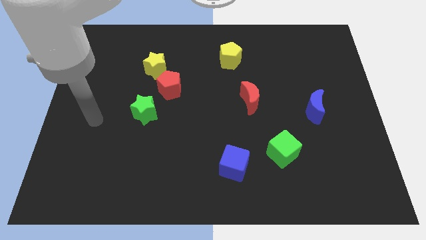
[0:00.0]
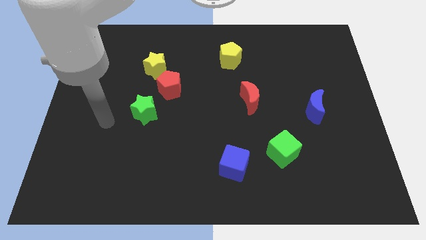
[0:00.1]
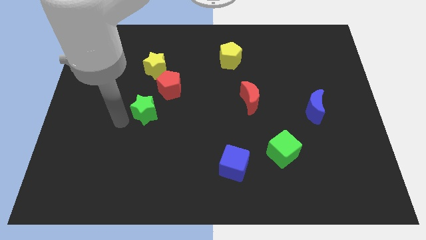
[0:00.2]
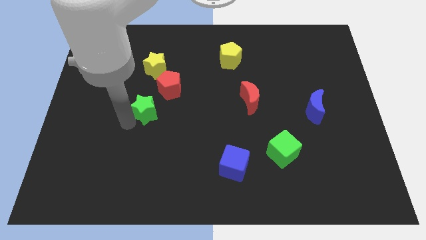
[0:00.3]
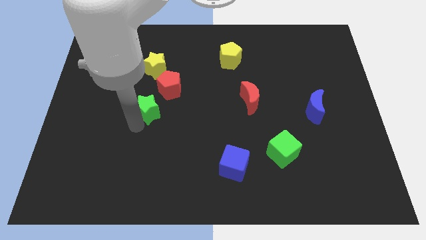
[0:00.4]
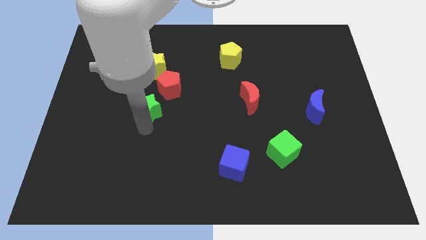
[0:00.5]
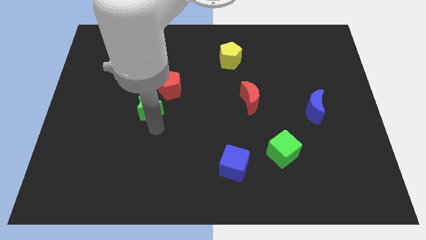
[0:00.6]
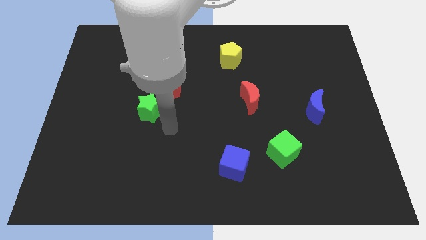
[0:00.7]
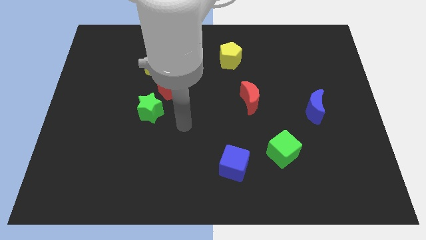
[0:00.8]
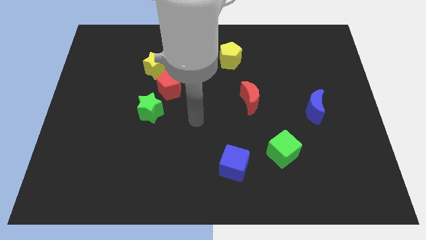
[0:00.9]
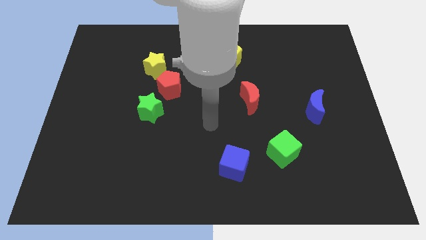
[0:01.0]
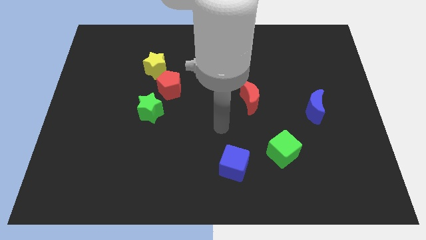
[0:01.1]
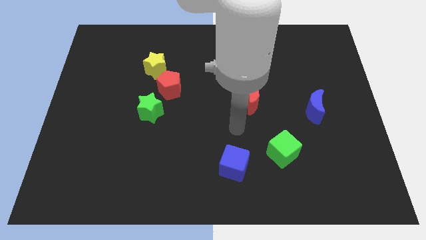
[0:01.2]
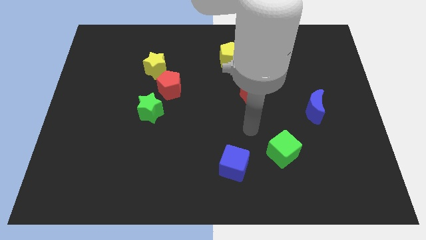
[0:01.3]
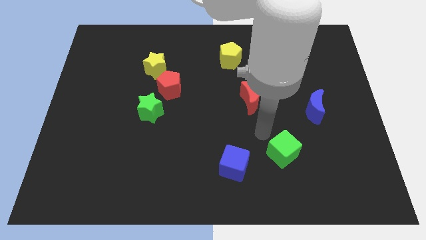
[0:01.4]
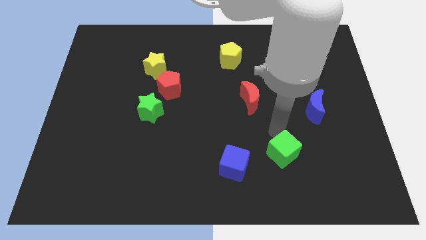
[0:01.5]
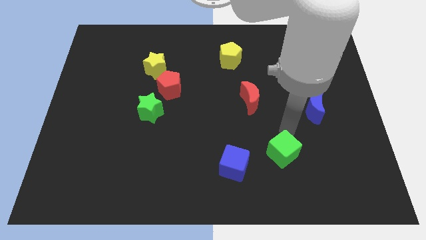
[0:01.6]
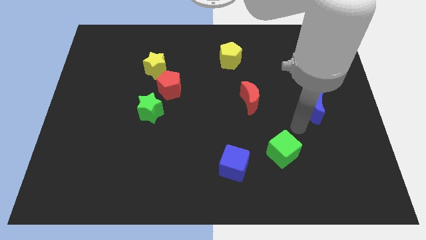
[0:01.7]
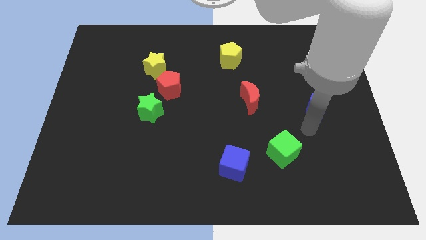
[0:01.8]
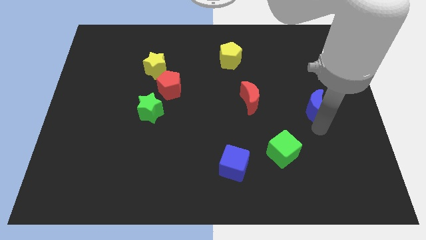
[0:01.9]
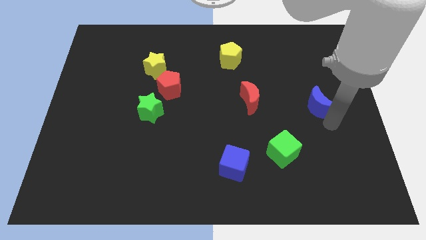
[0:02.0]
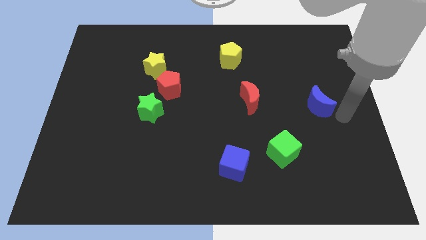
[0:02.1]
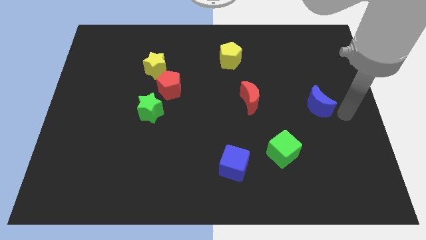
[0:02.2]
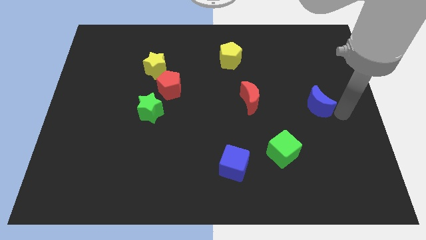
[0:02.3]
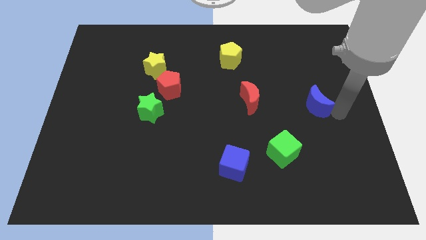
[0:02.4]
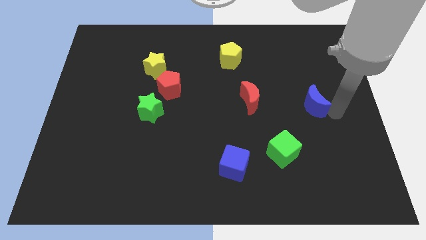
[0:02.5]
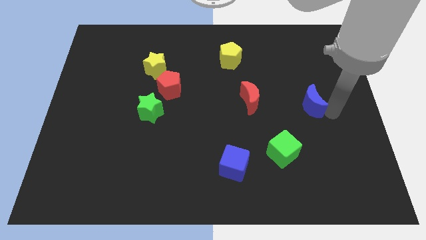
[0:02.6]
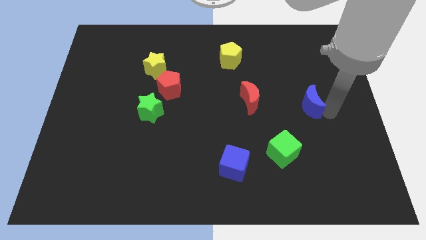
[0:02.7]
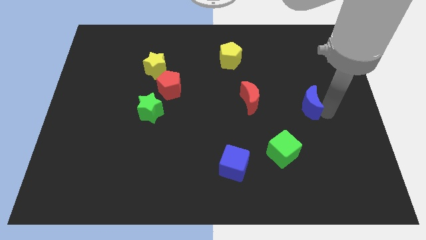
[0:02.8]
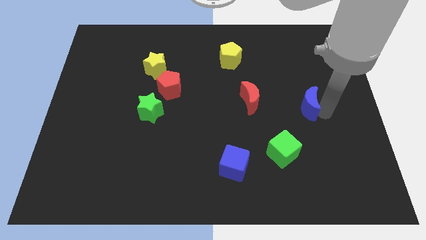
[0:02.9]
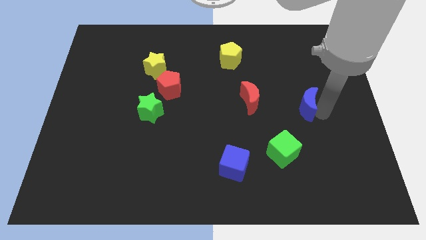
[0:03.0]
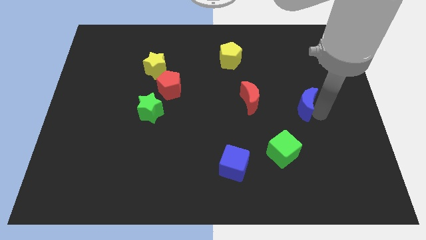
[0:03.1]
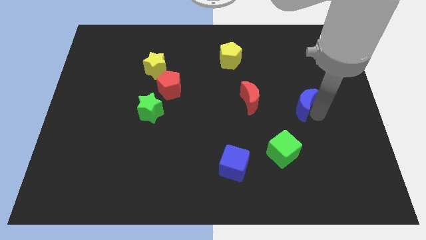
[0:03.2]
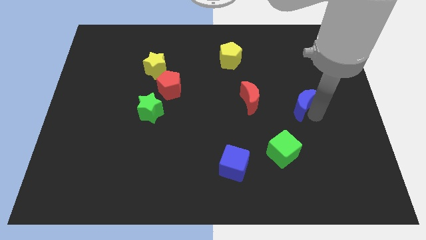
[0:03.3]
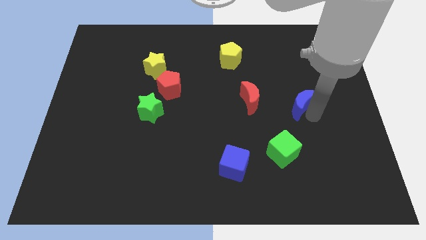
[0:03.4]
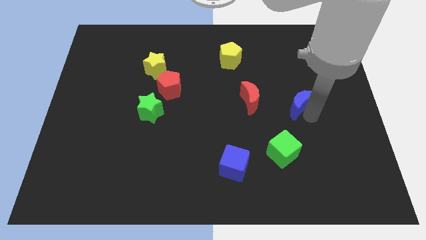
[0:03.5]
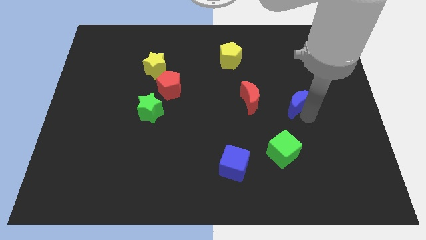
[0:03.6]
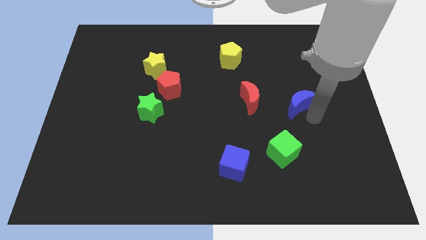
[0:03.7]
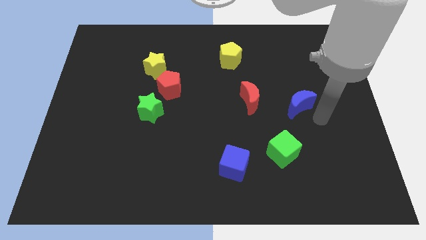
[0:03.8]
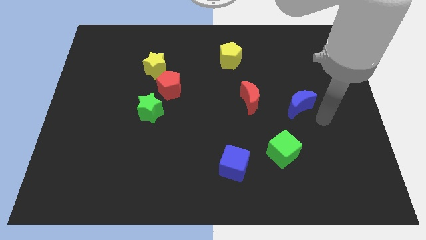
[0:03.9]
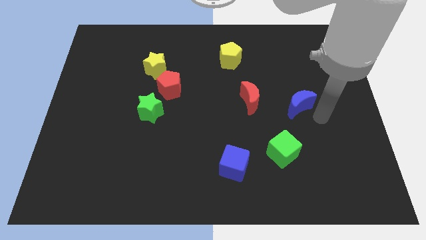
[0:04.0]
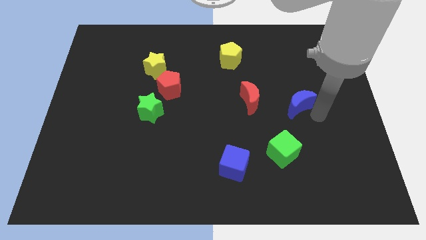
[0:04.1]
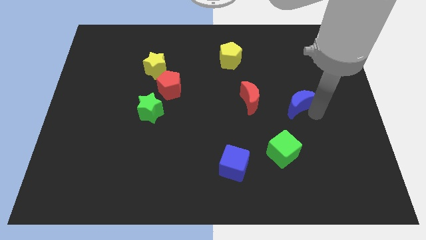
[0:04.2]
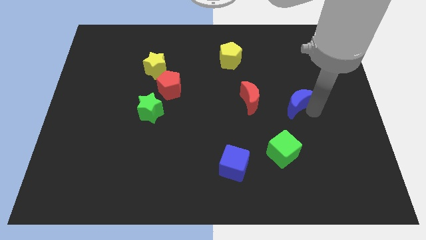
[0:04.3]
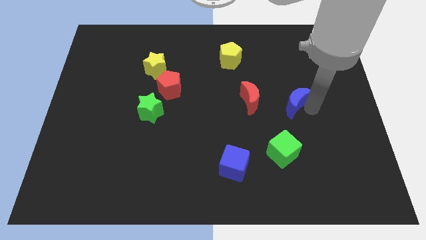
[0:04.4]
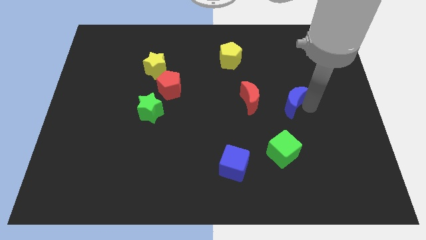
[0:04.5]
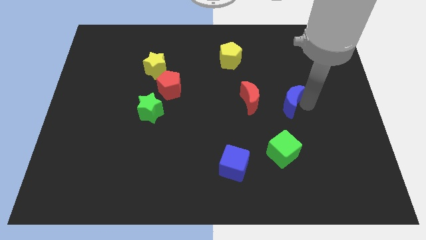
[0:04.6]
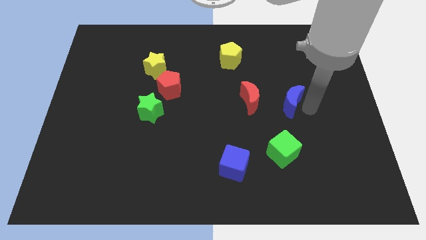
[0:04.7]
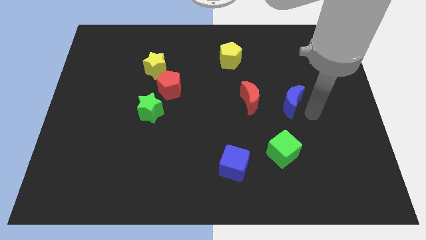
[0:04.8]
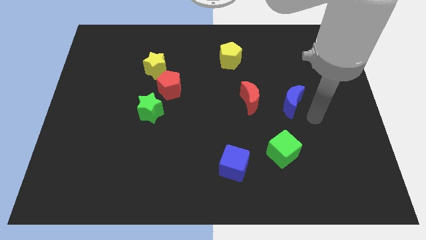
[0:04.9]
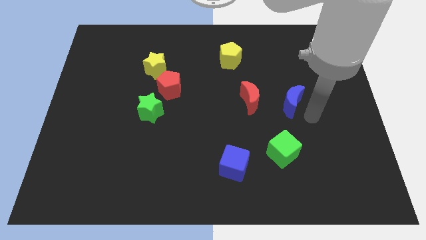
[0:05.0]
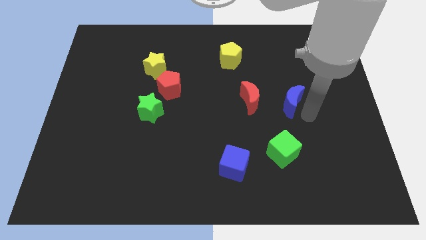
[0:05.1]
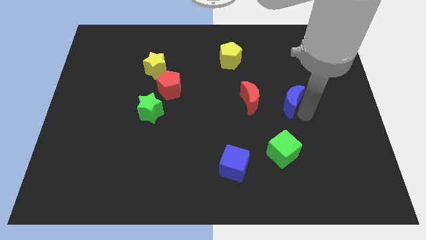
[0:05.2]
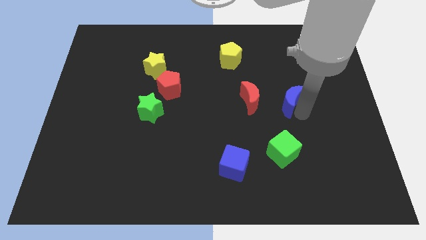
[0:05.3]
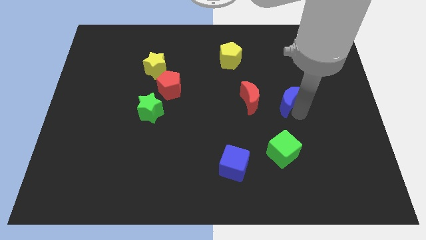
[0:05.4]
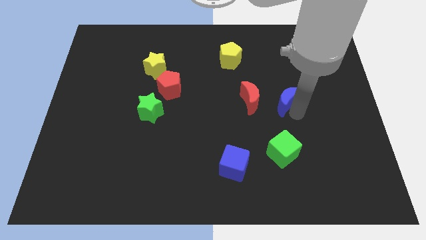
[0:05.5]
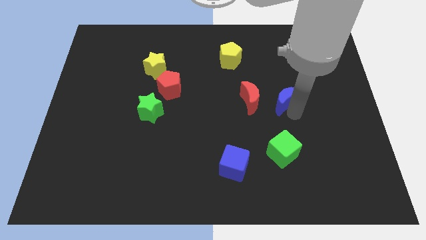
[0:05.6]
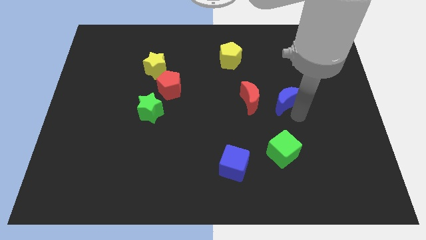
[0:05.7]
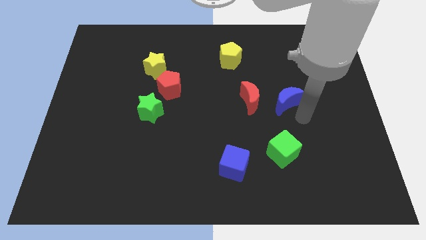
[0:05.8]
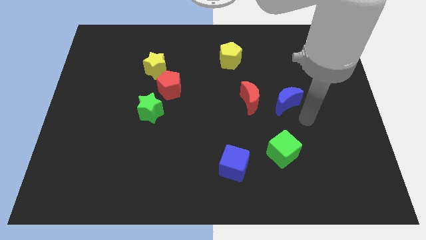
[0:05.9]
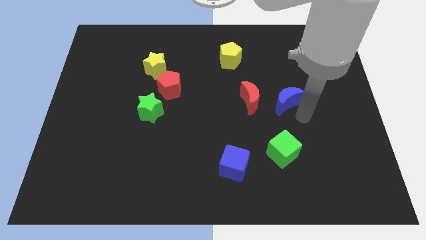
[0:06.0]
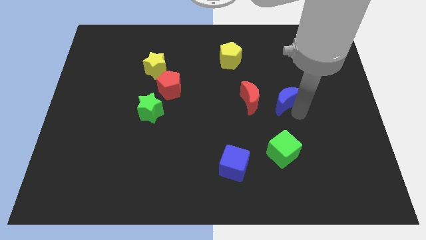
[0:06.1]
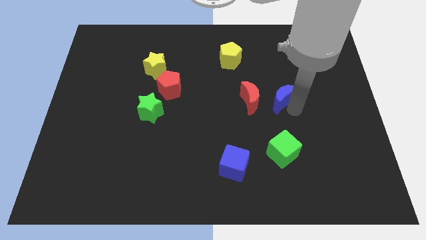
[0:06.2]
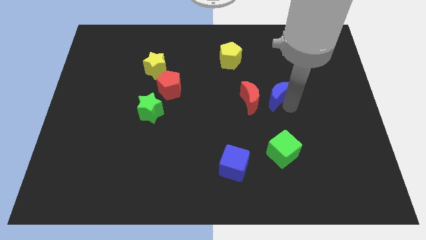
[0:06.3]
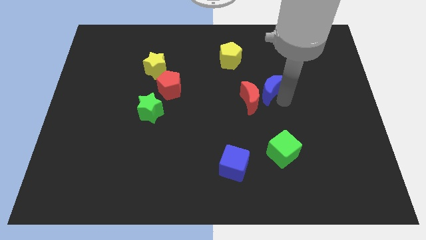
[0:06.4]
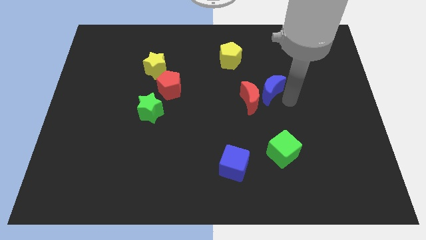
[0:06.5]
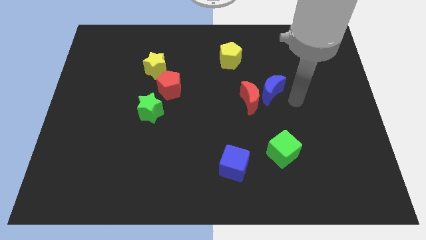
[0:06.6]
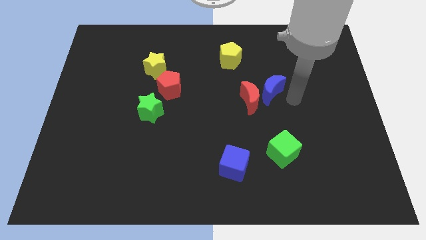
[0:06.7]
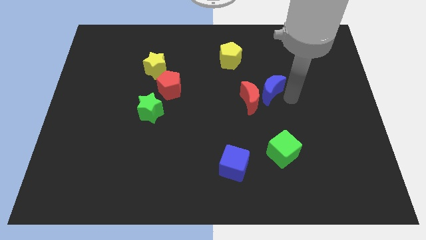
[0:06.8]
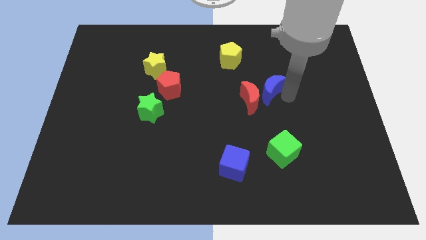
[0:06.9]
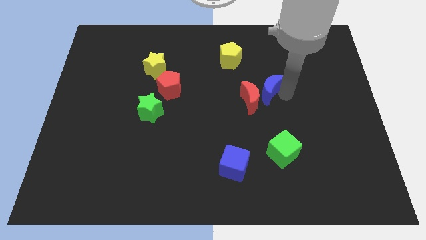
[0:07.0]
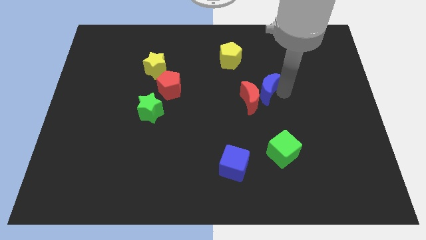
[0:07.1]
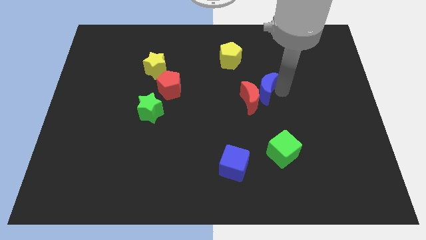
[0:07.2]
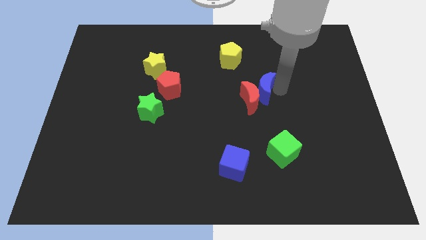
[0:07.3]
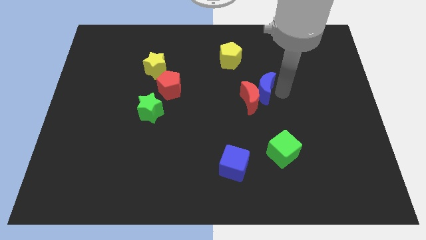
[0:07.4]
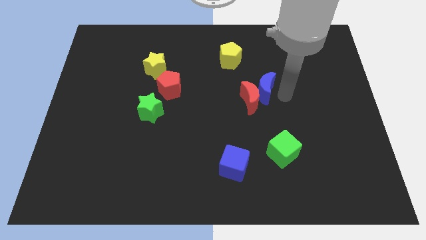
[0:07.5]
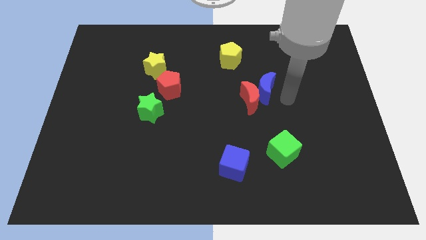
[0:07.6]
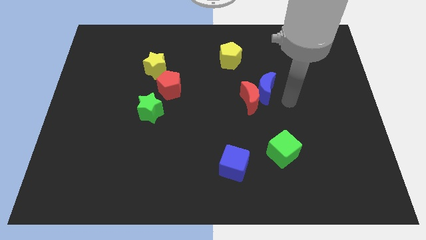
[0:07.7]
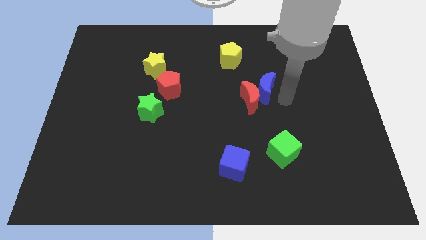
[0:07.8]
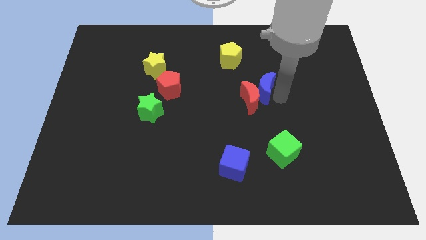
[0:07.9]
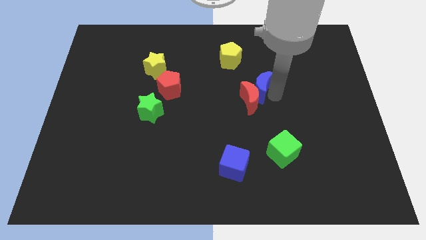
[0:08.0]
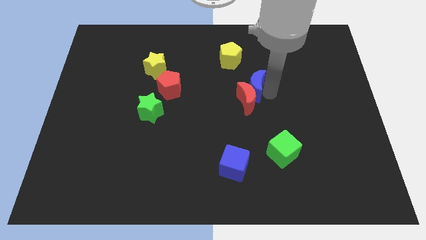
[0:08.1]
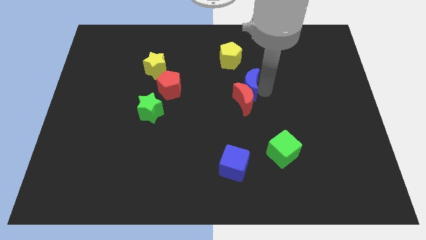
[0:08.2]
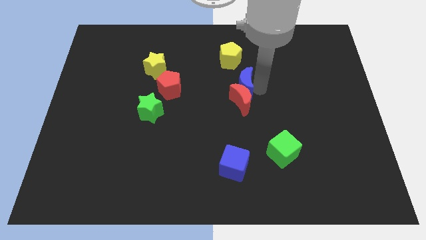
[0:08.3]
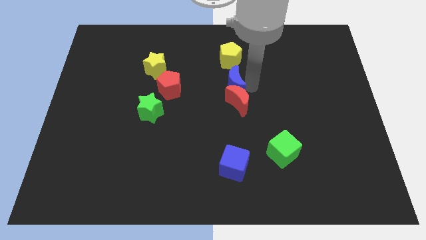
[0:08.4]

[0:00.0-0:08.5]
slide the blue moon to the right side of the red pentagon
